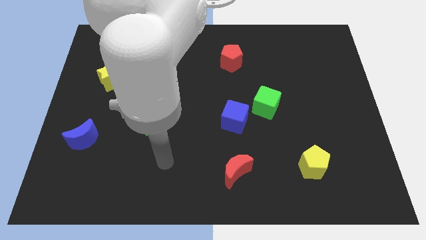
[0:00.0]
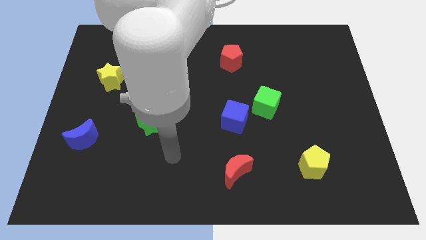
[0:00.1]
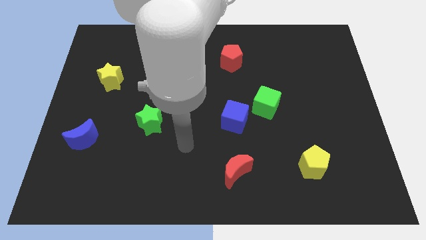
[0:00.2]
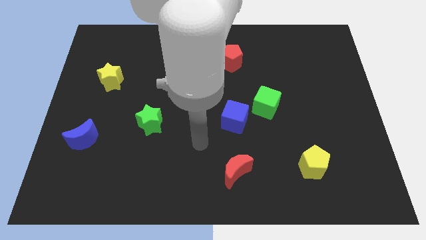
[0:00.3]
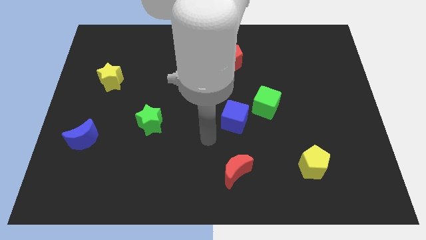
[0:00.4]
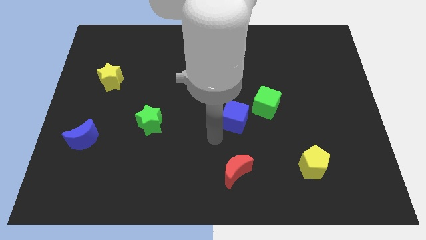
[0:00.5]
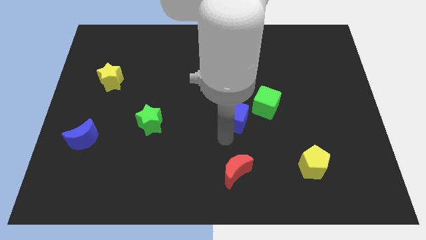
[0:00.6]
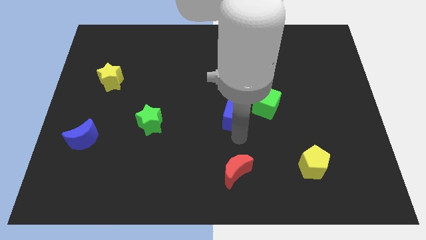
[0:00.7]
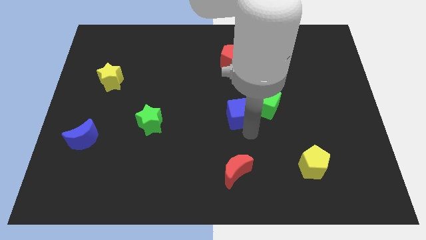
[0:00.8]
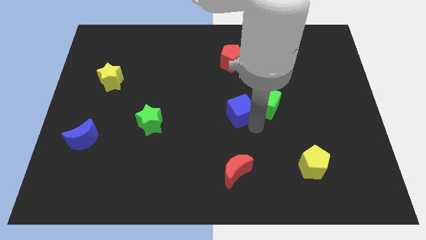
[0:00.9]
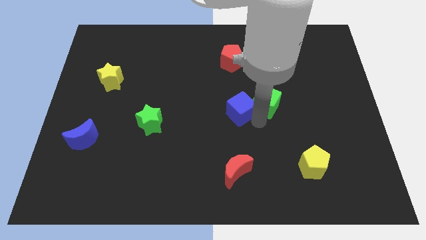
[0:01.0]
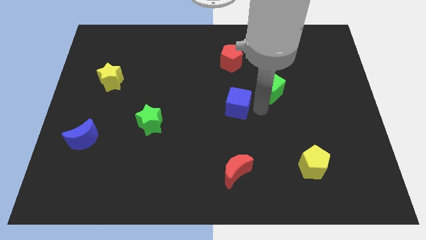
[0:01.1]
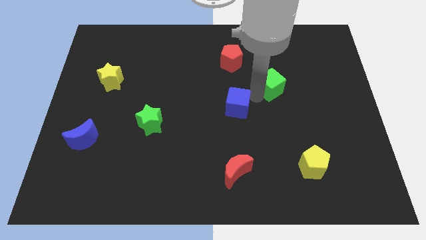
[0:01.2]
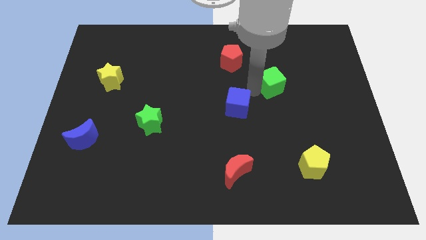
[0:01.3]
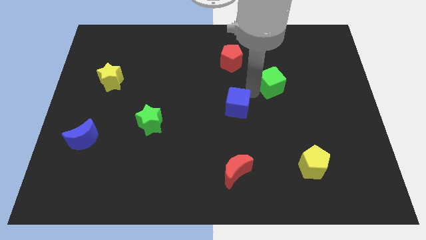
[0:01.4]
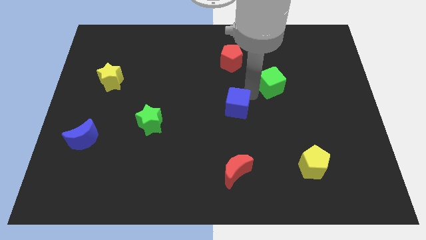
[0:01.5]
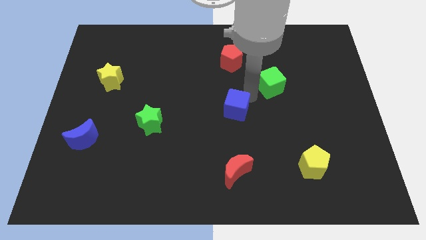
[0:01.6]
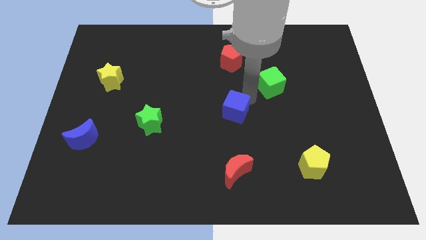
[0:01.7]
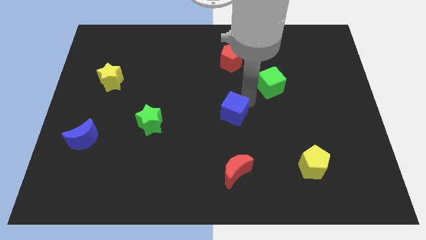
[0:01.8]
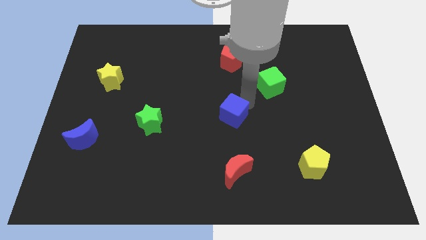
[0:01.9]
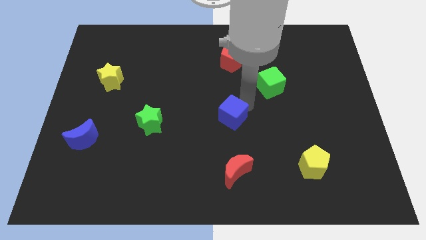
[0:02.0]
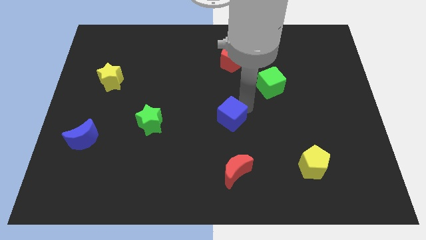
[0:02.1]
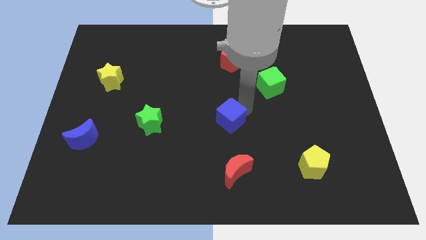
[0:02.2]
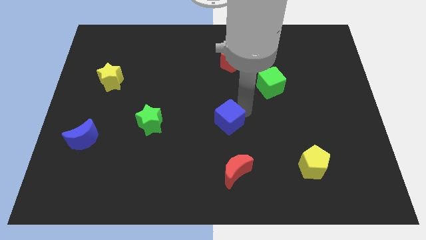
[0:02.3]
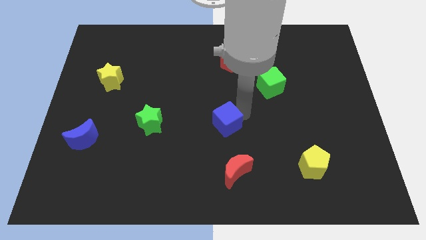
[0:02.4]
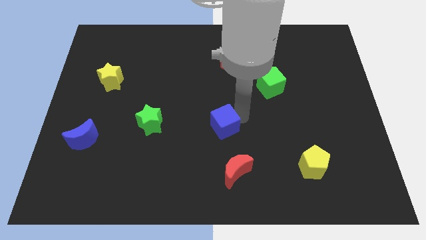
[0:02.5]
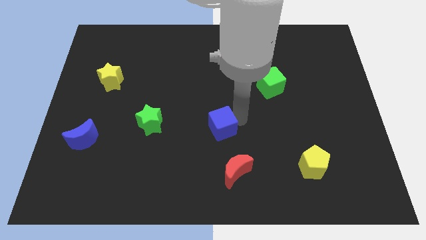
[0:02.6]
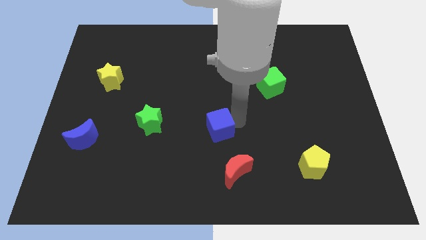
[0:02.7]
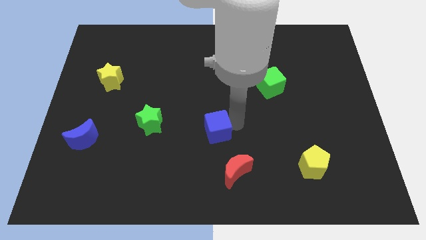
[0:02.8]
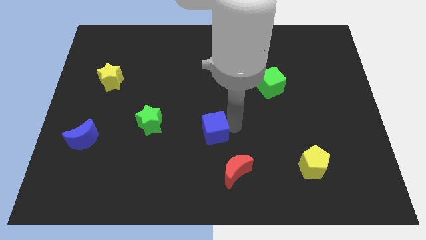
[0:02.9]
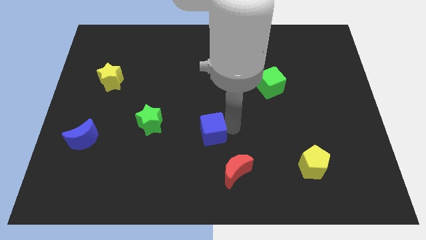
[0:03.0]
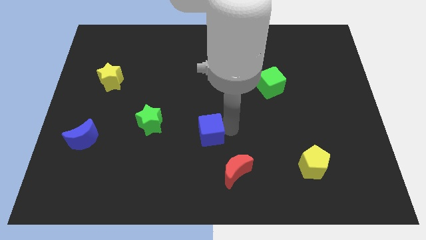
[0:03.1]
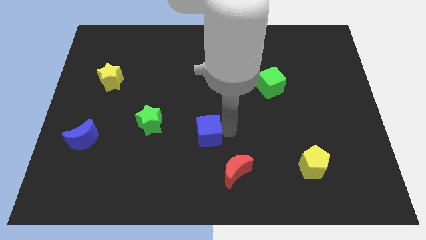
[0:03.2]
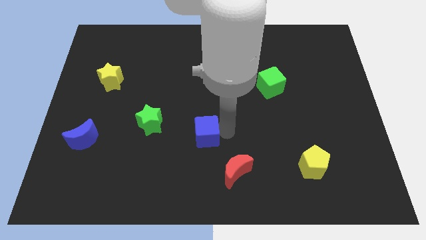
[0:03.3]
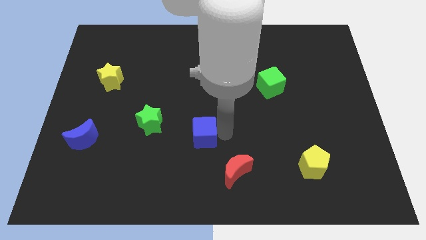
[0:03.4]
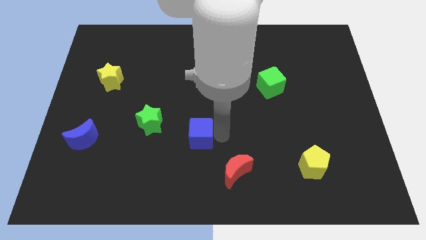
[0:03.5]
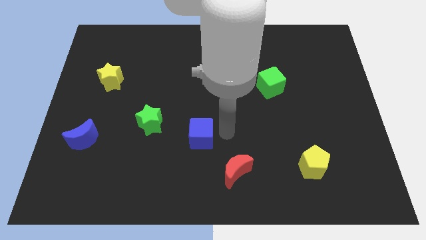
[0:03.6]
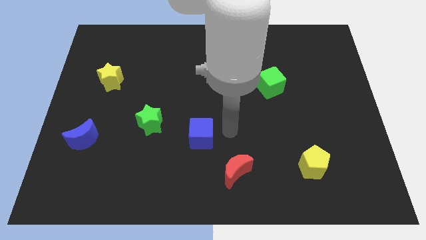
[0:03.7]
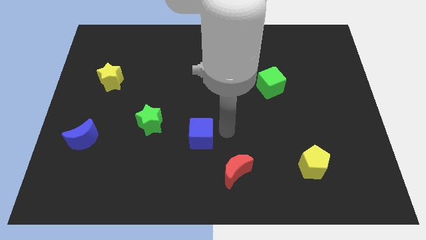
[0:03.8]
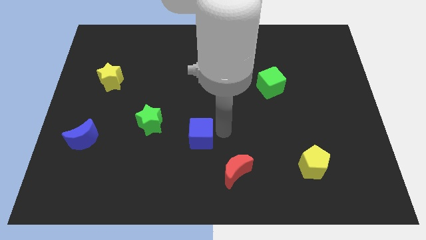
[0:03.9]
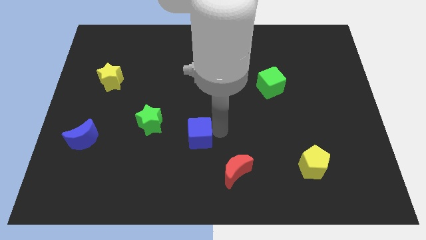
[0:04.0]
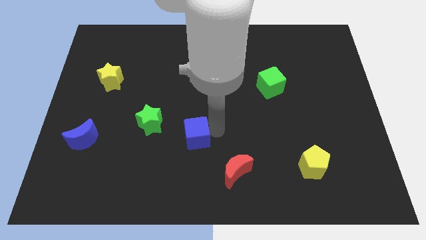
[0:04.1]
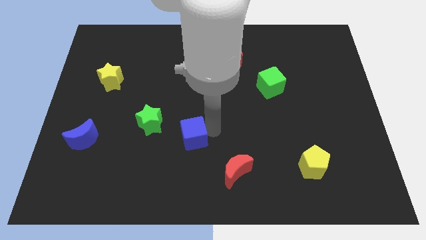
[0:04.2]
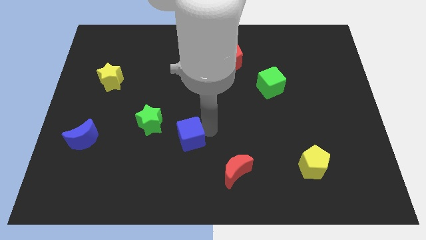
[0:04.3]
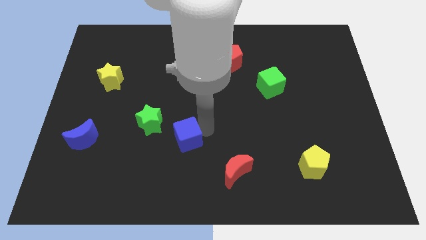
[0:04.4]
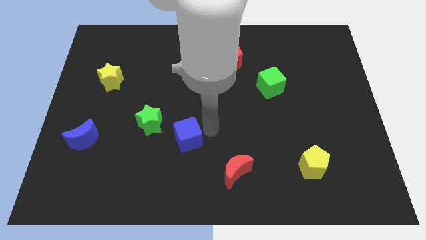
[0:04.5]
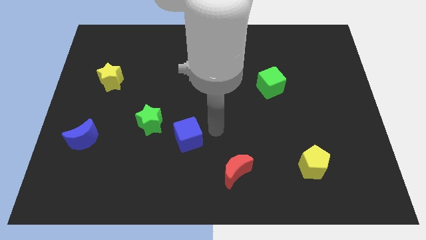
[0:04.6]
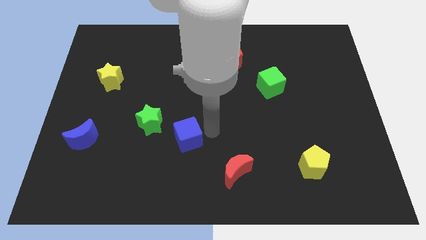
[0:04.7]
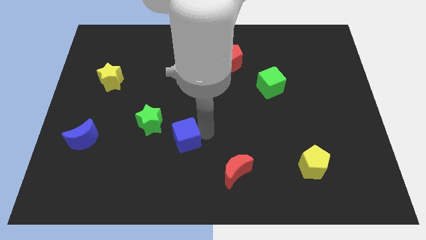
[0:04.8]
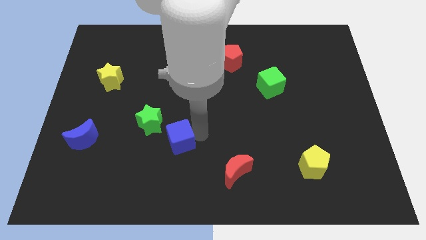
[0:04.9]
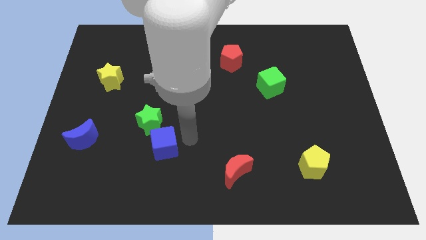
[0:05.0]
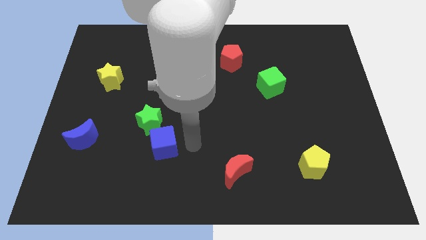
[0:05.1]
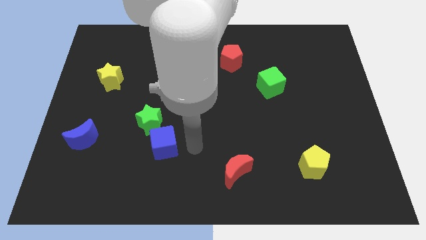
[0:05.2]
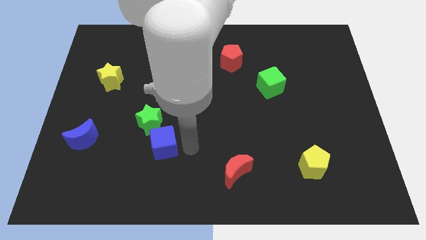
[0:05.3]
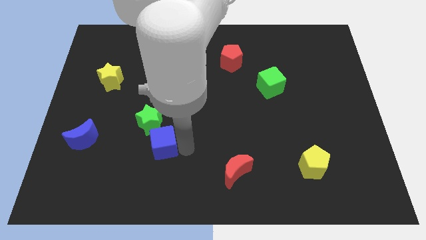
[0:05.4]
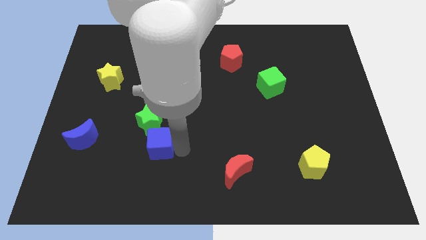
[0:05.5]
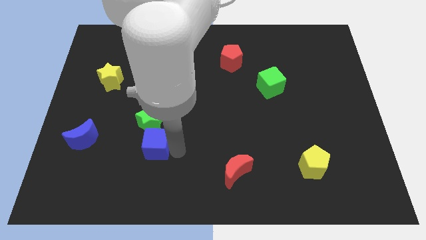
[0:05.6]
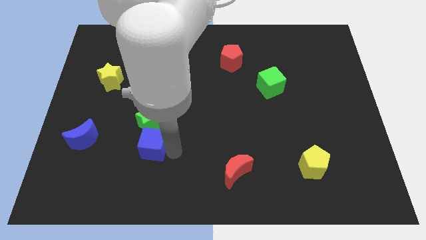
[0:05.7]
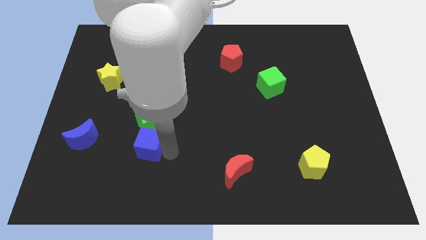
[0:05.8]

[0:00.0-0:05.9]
push the blue cube to the bottom left of the green star
